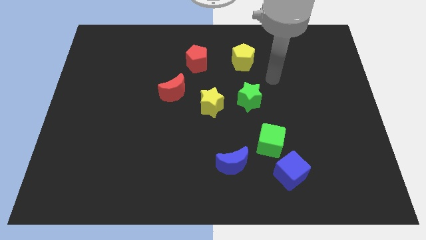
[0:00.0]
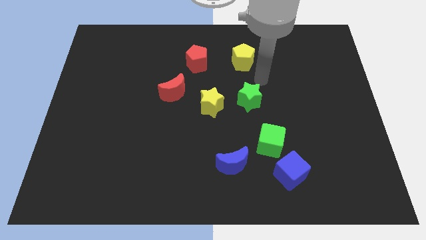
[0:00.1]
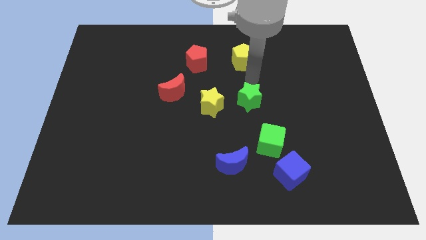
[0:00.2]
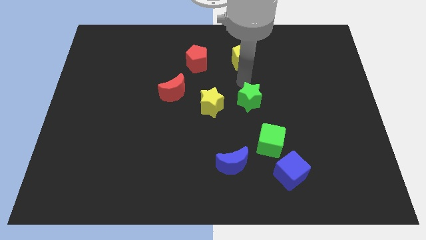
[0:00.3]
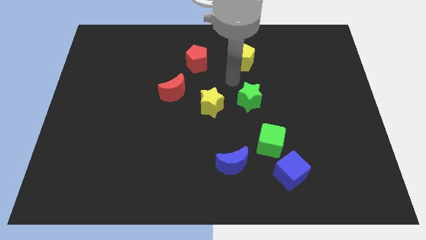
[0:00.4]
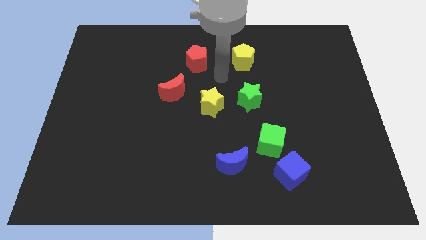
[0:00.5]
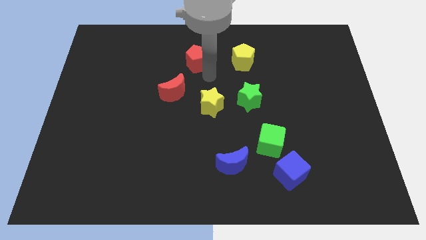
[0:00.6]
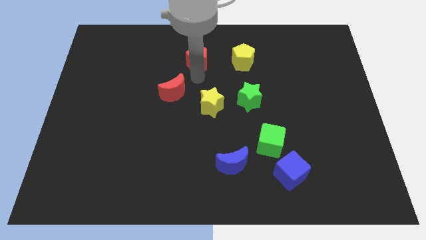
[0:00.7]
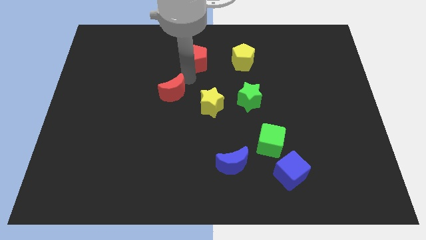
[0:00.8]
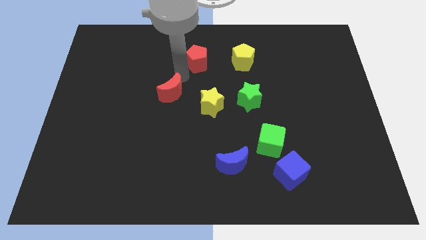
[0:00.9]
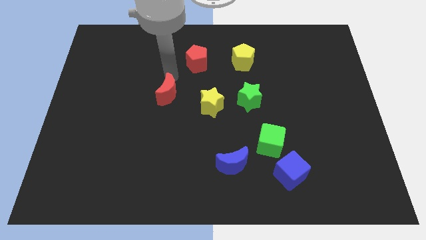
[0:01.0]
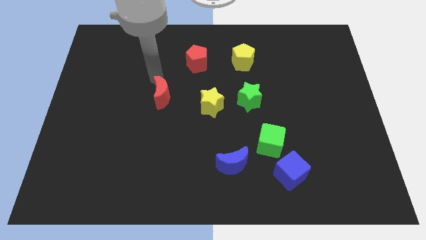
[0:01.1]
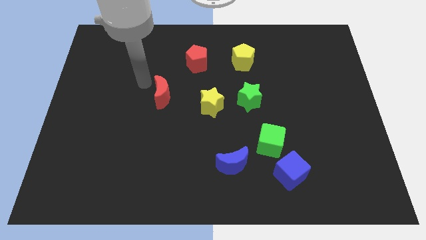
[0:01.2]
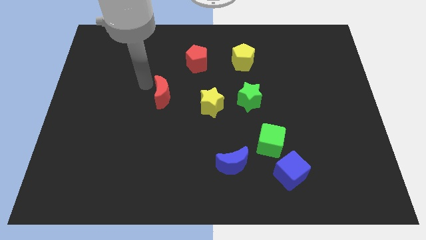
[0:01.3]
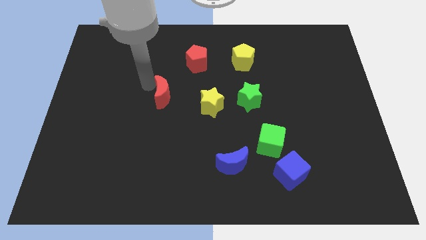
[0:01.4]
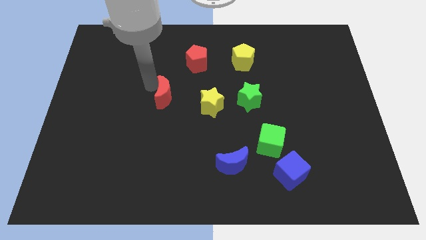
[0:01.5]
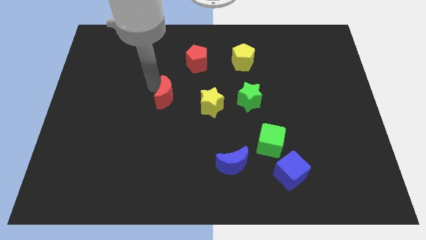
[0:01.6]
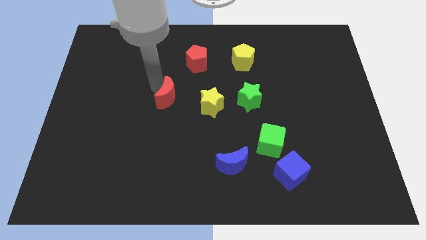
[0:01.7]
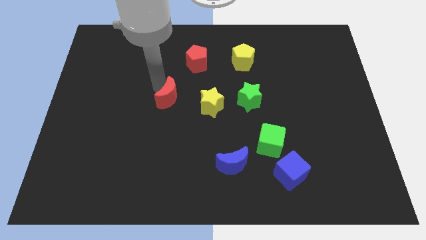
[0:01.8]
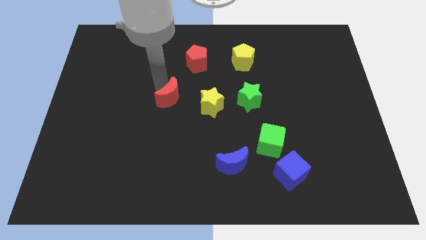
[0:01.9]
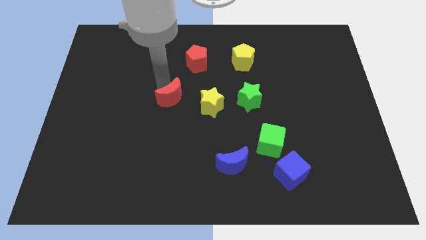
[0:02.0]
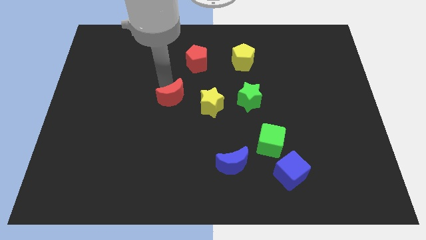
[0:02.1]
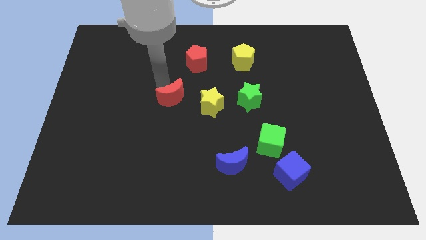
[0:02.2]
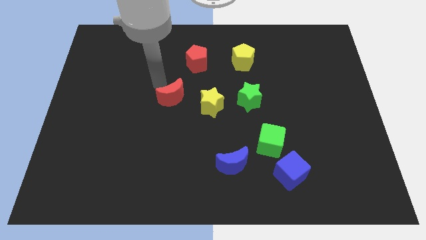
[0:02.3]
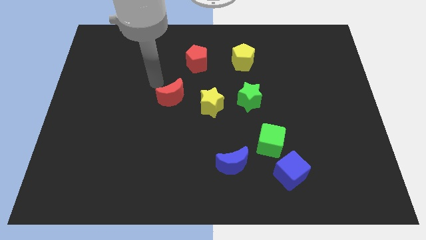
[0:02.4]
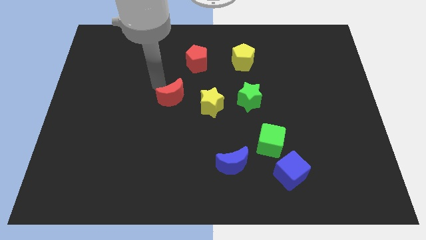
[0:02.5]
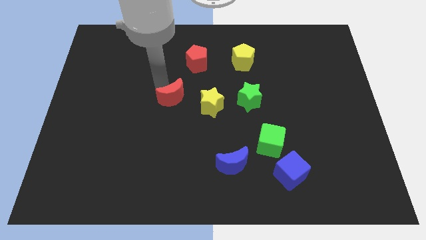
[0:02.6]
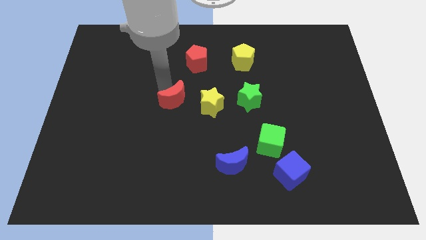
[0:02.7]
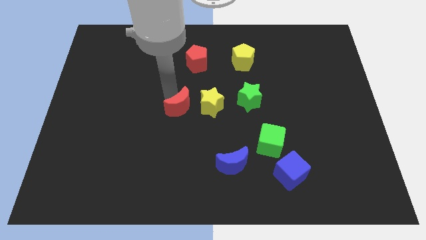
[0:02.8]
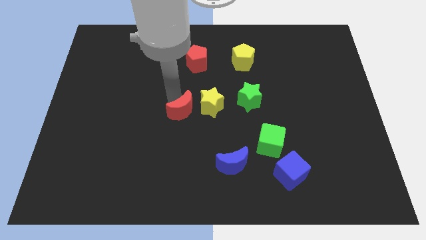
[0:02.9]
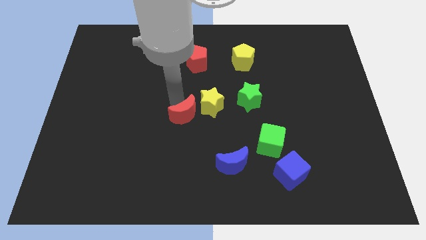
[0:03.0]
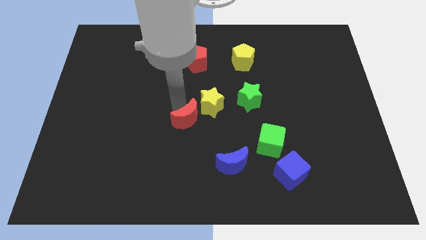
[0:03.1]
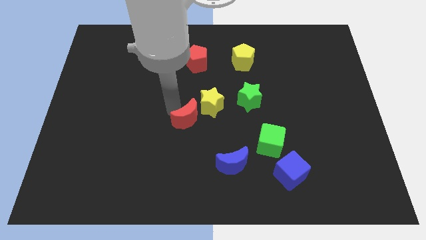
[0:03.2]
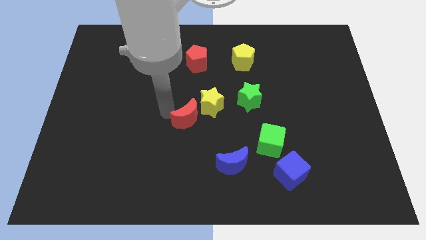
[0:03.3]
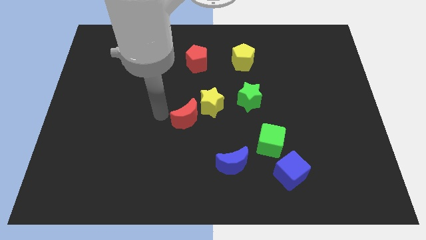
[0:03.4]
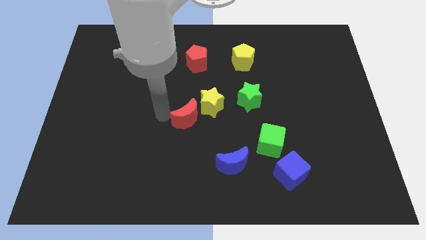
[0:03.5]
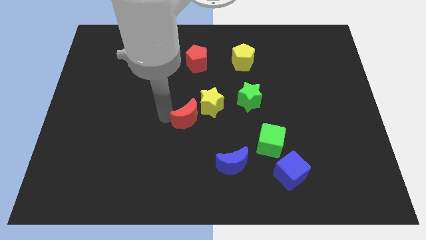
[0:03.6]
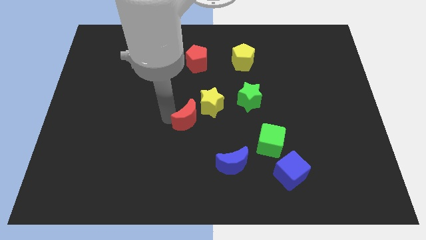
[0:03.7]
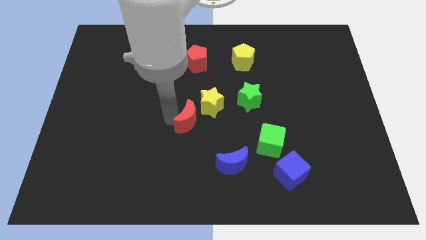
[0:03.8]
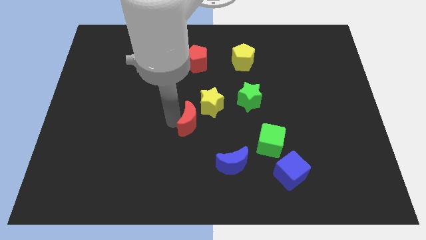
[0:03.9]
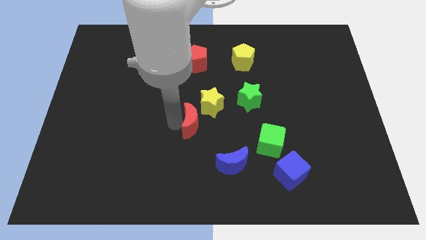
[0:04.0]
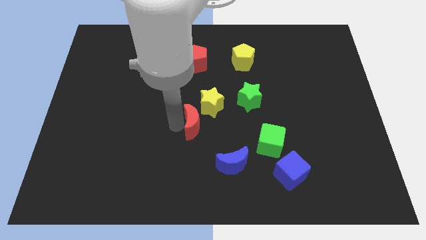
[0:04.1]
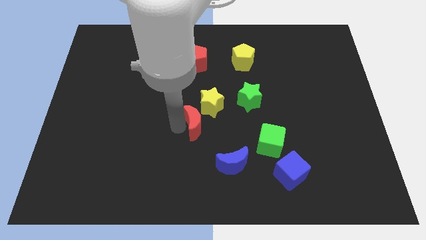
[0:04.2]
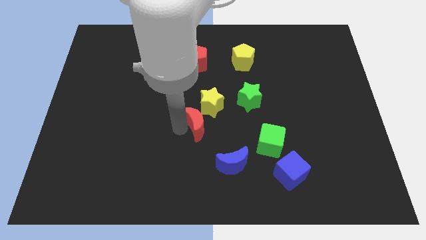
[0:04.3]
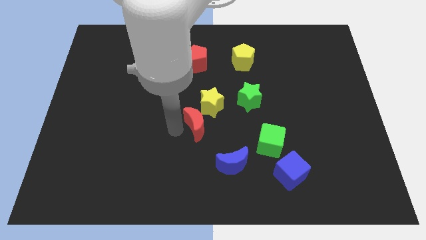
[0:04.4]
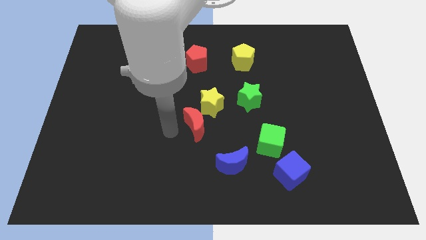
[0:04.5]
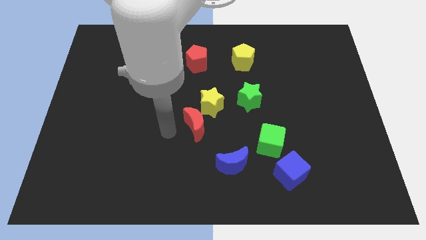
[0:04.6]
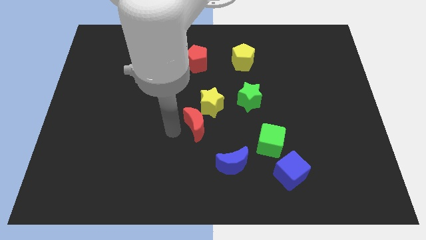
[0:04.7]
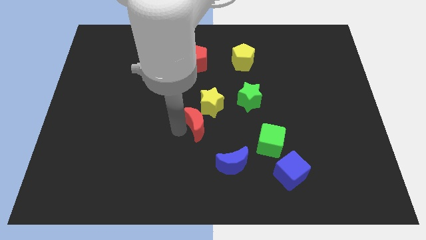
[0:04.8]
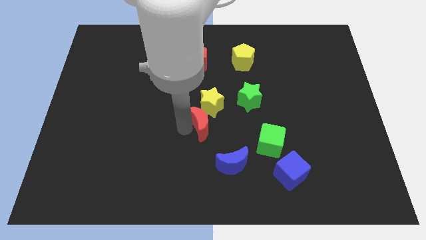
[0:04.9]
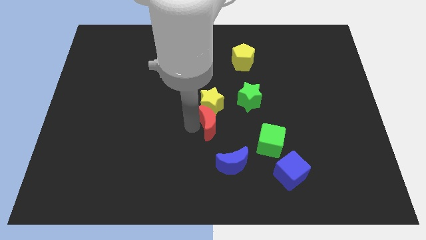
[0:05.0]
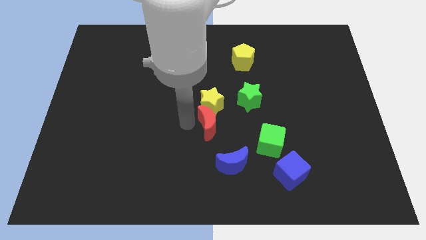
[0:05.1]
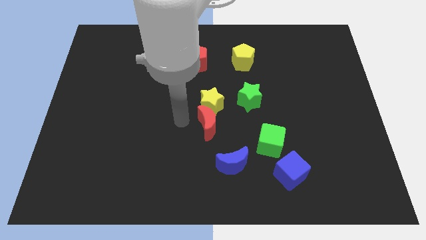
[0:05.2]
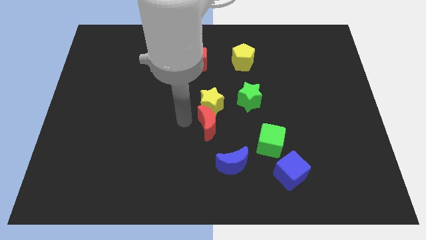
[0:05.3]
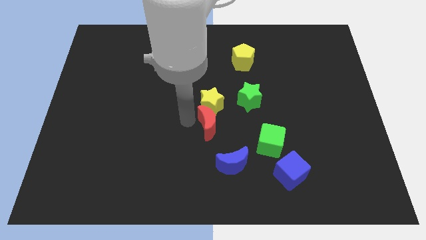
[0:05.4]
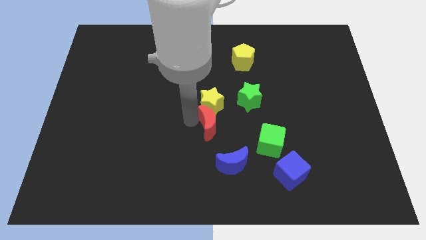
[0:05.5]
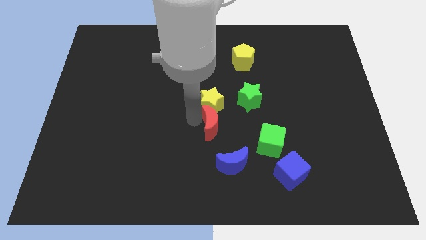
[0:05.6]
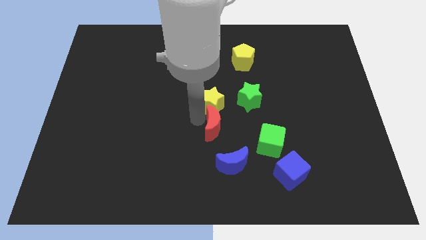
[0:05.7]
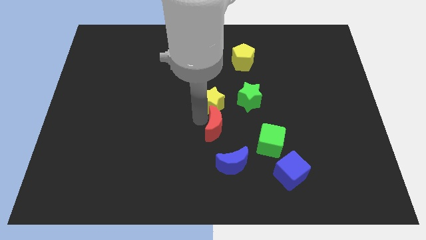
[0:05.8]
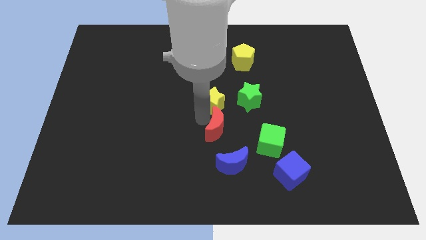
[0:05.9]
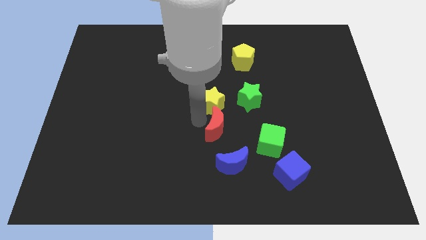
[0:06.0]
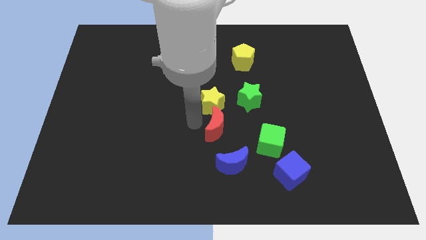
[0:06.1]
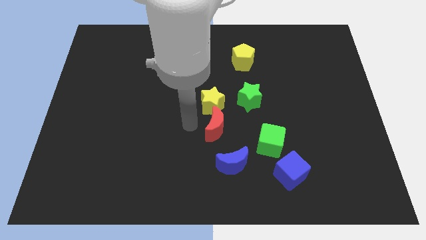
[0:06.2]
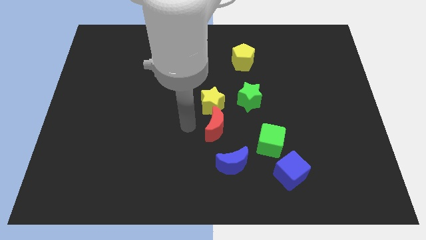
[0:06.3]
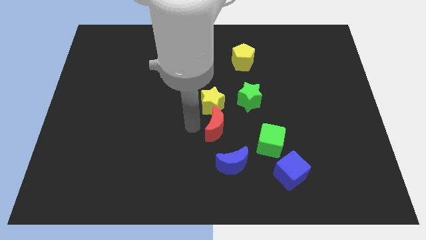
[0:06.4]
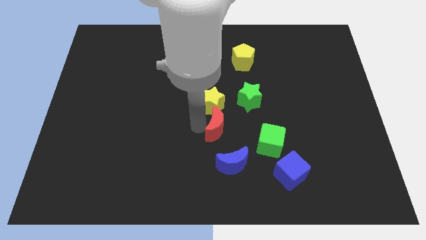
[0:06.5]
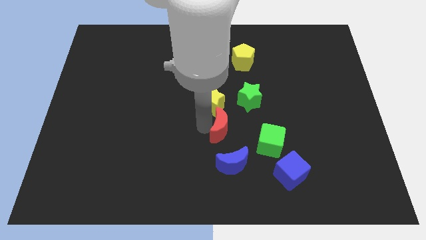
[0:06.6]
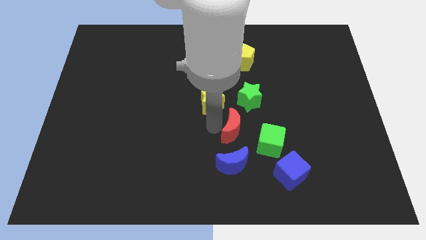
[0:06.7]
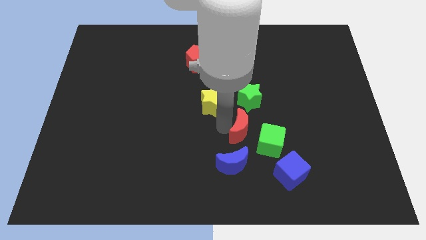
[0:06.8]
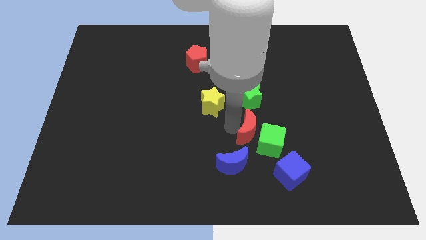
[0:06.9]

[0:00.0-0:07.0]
move the red moon to the green cube

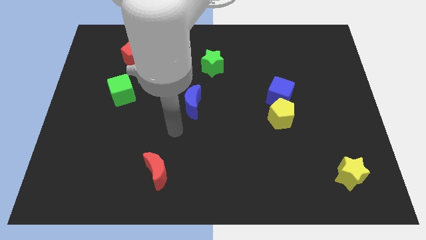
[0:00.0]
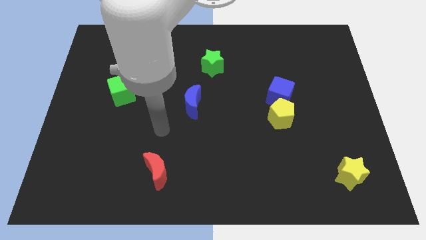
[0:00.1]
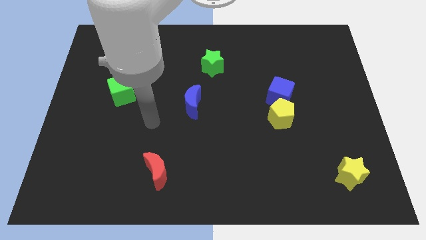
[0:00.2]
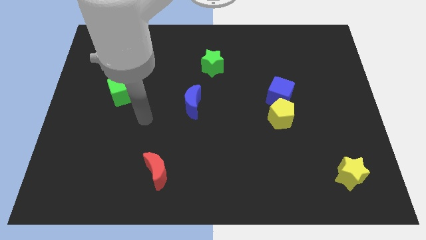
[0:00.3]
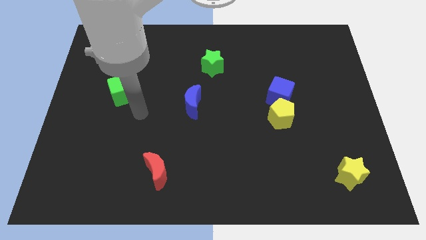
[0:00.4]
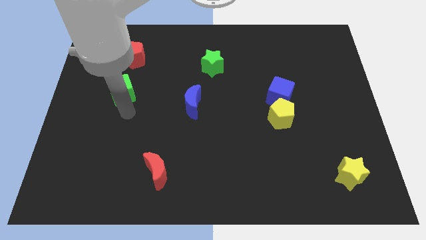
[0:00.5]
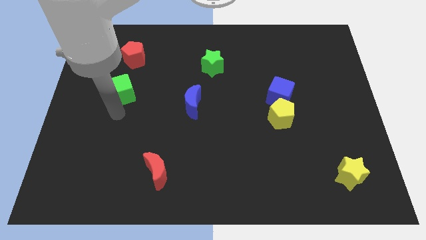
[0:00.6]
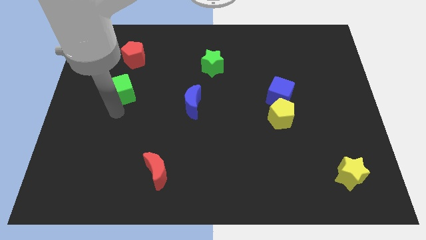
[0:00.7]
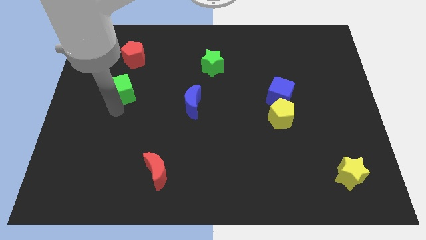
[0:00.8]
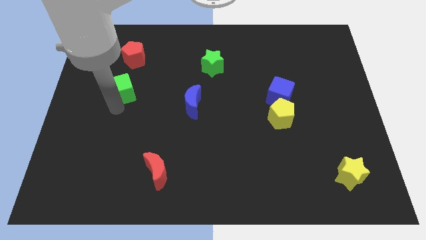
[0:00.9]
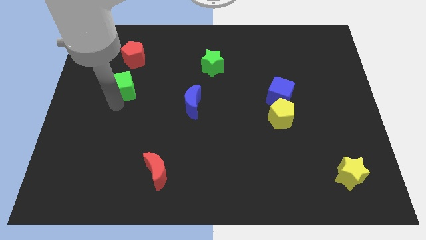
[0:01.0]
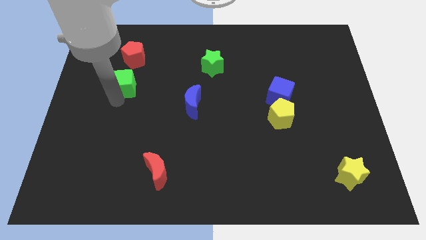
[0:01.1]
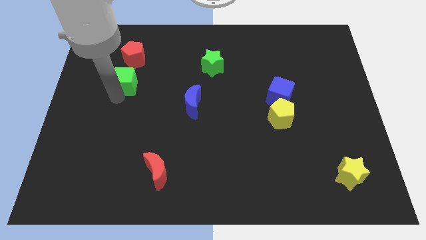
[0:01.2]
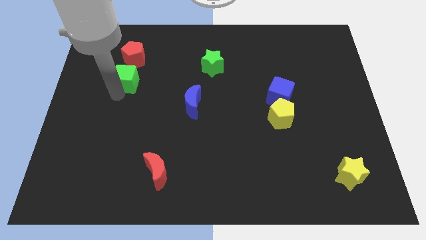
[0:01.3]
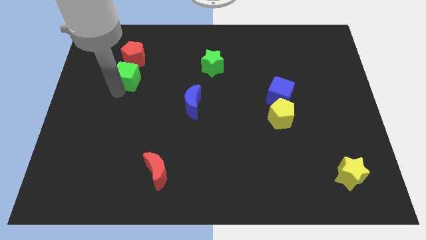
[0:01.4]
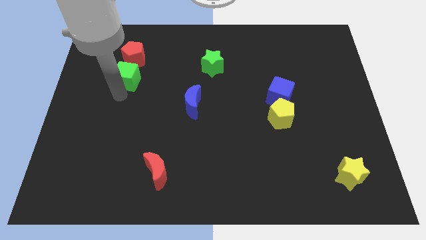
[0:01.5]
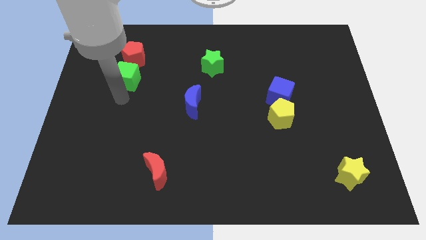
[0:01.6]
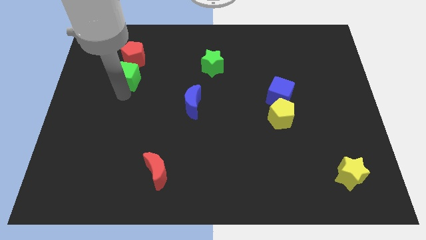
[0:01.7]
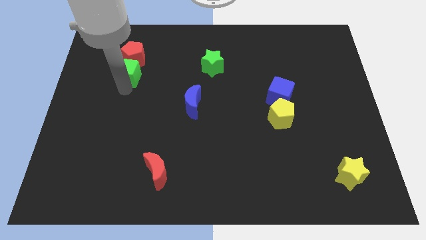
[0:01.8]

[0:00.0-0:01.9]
push the green cube towards the red pentagon
